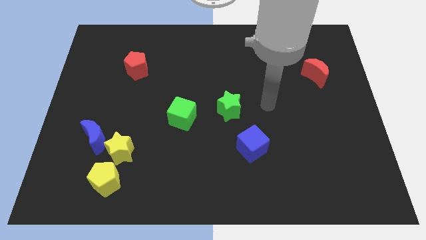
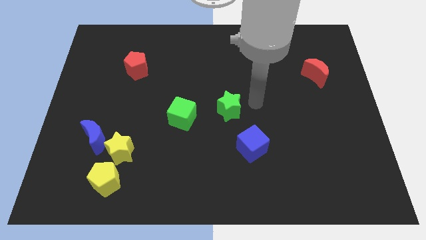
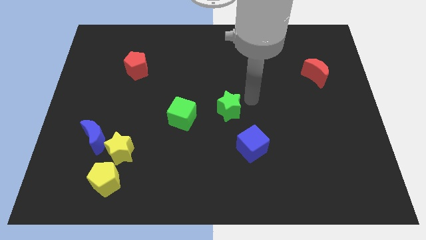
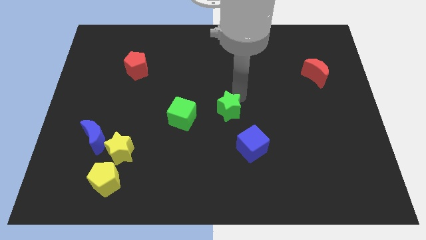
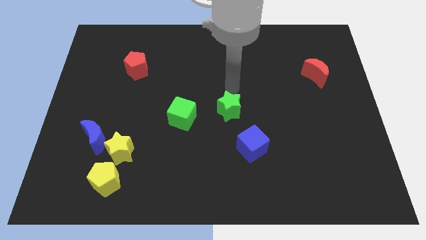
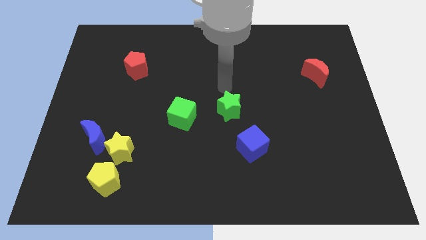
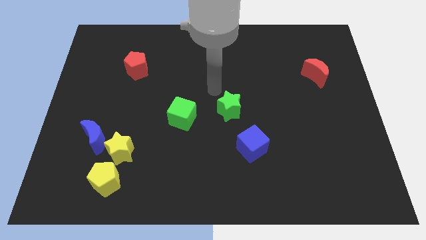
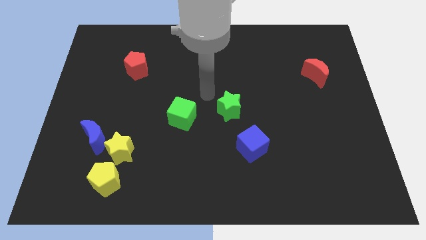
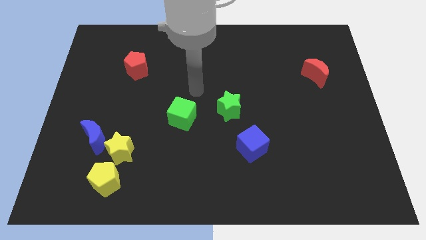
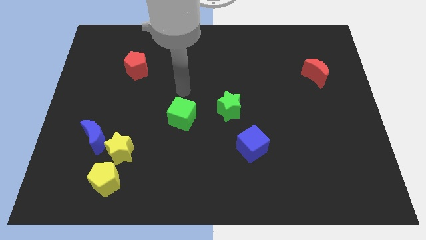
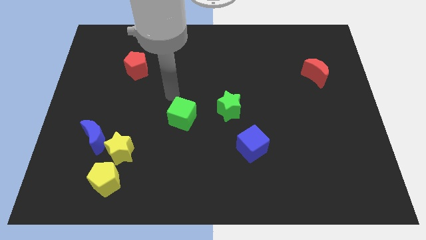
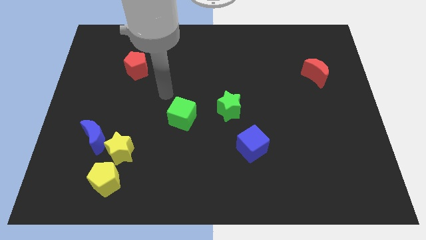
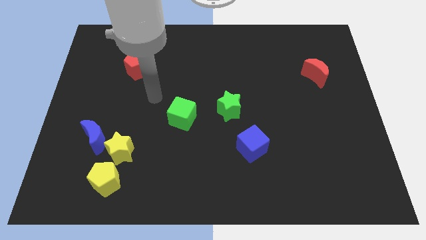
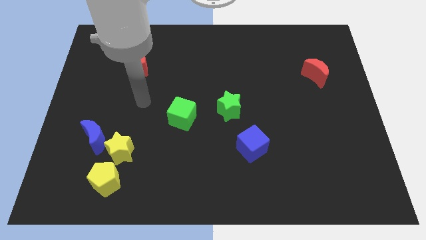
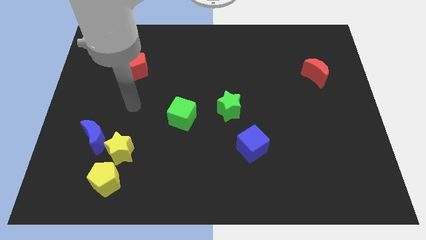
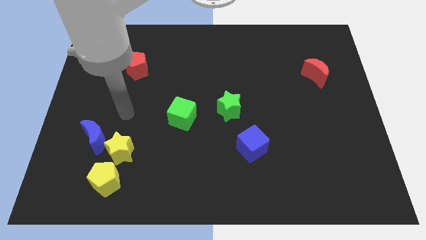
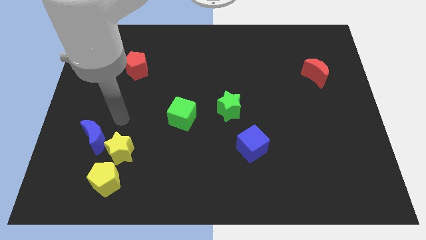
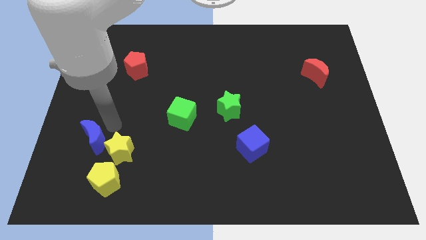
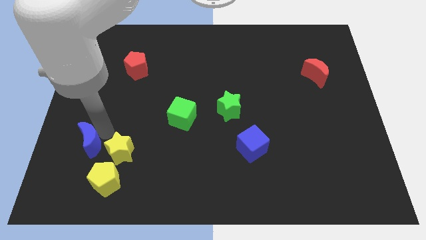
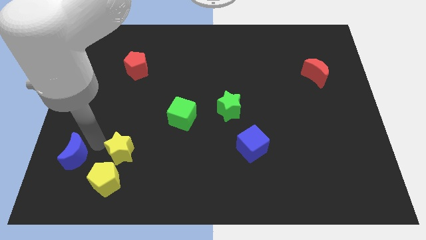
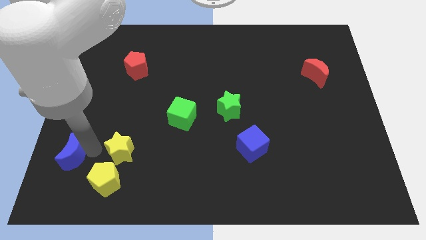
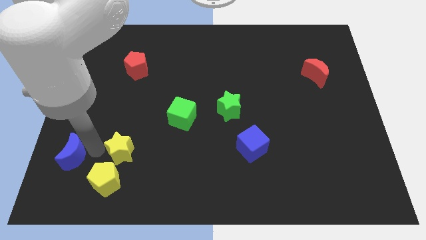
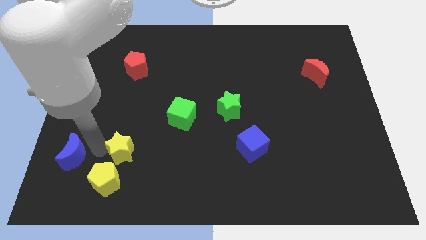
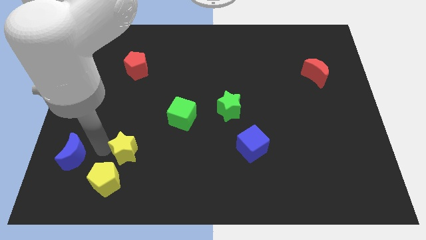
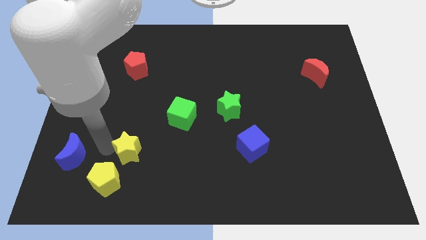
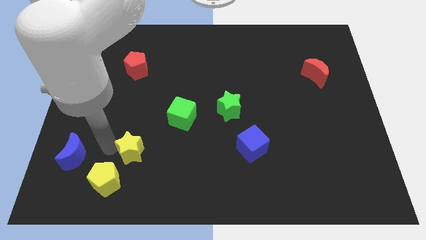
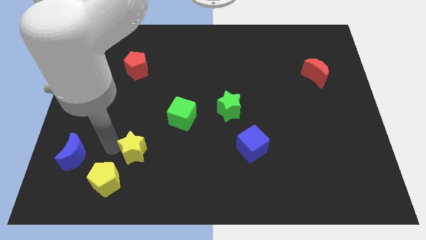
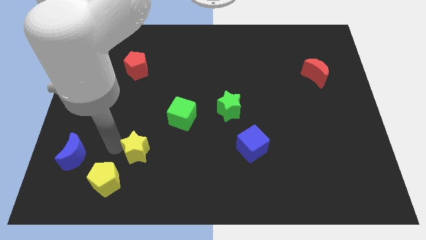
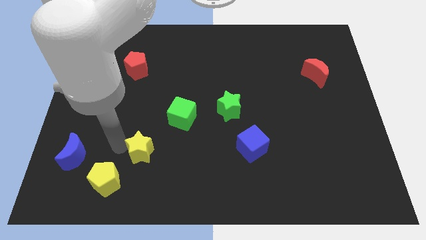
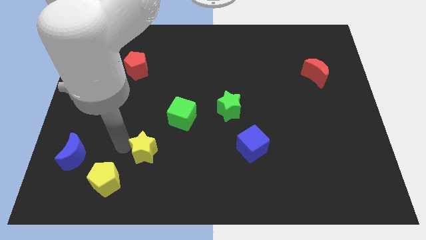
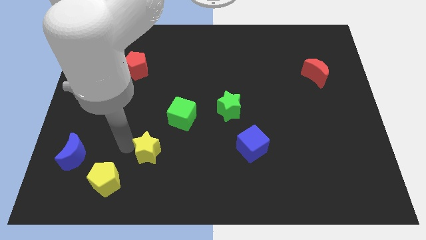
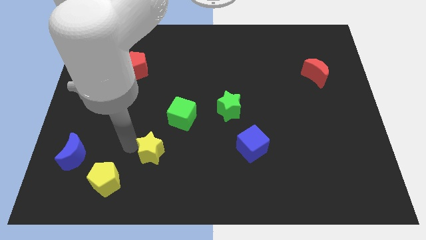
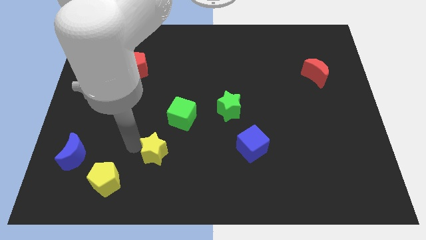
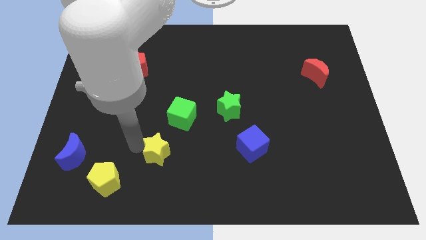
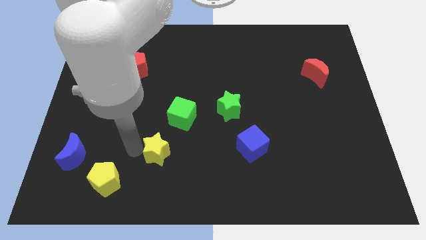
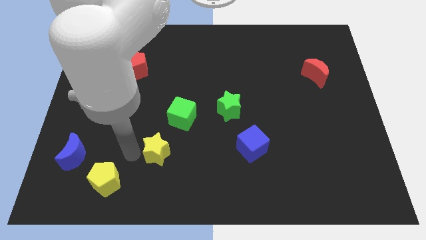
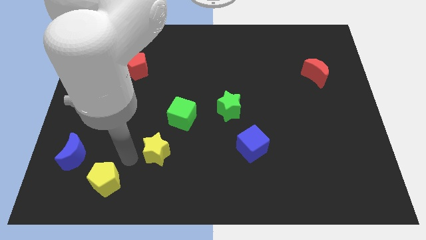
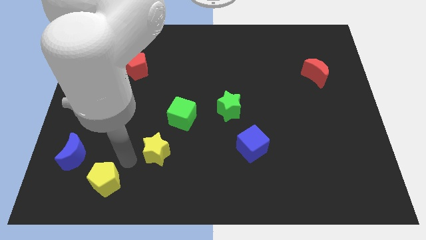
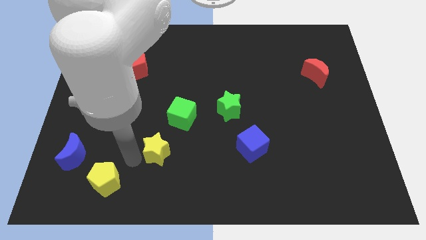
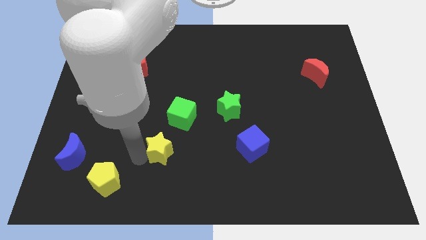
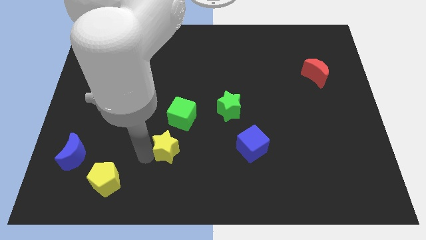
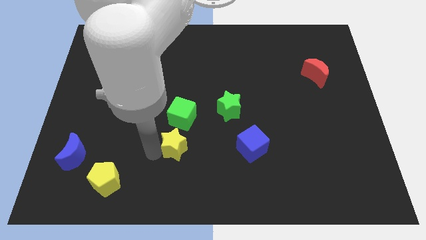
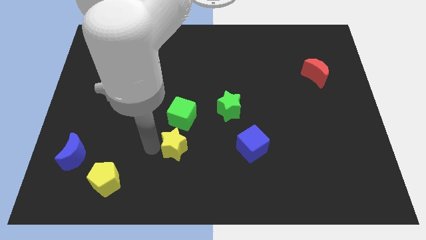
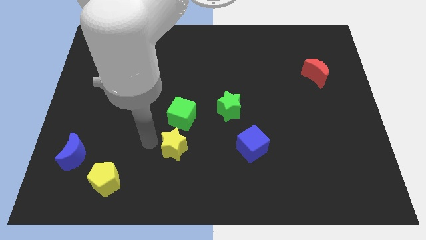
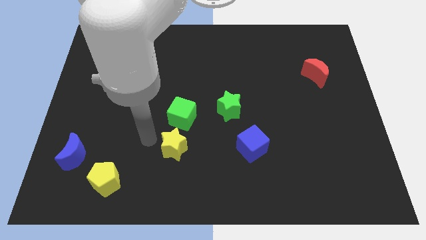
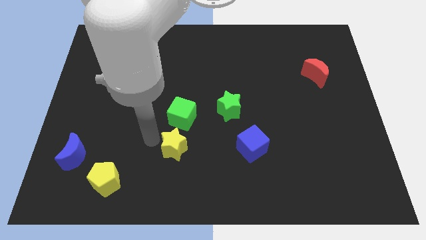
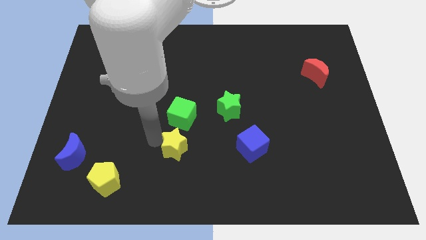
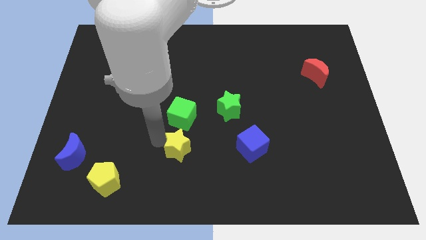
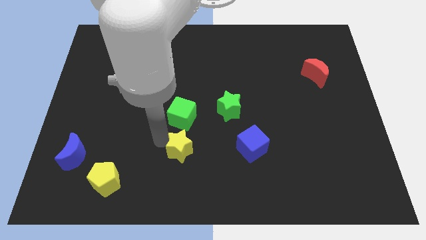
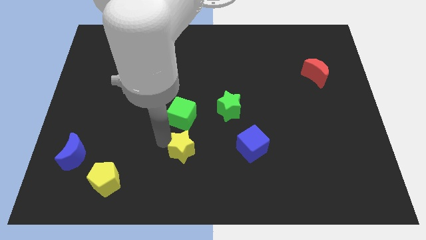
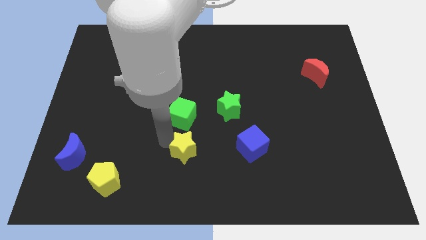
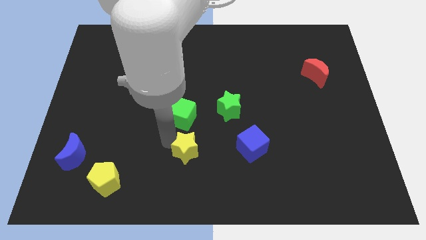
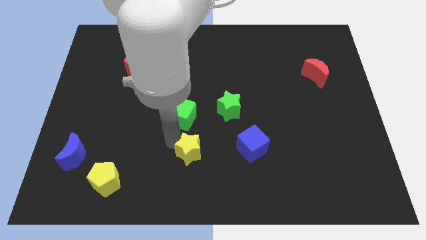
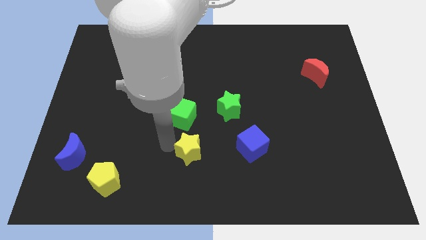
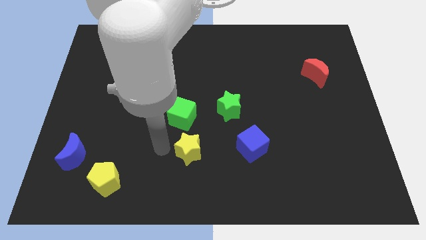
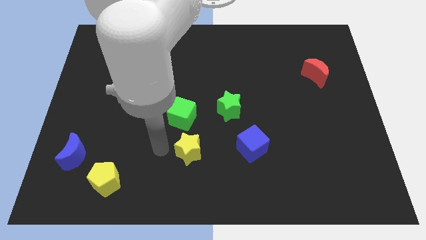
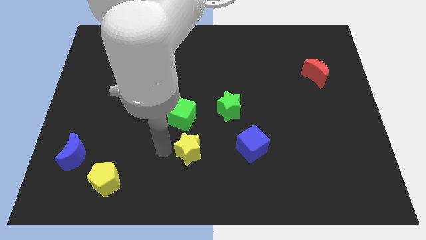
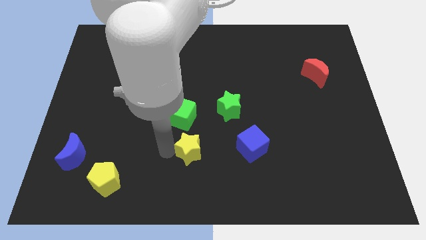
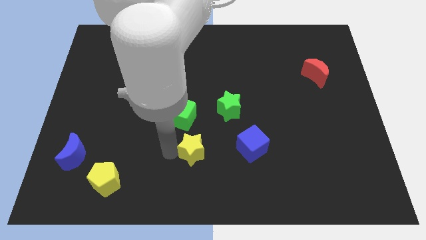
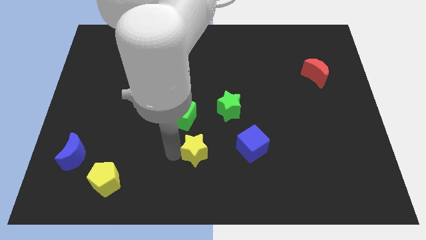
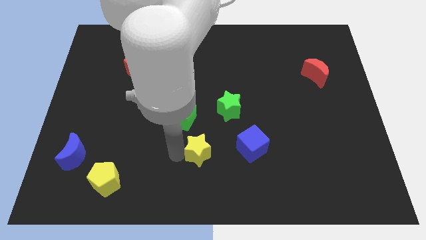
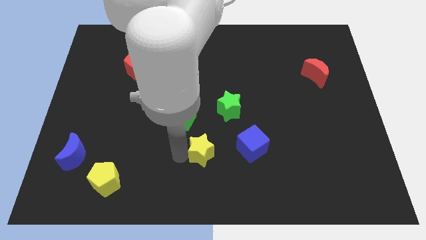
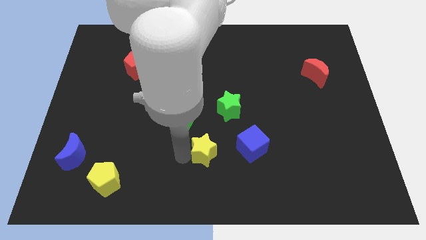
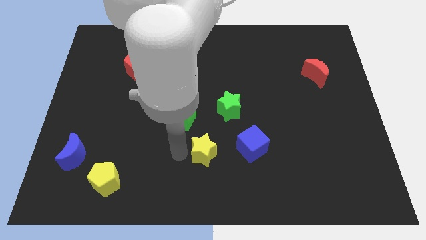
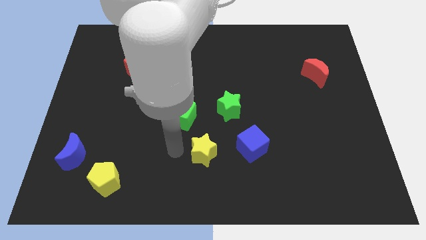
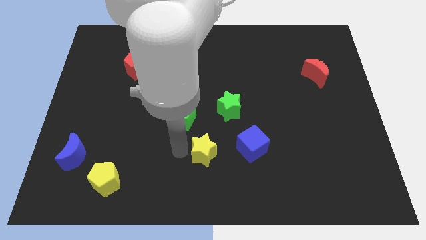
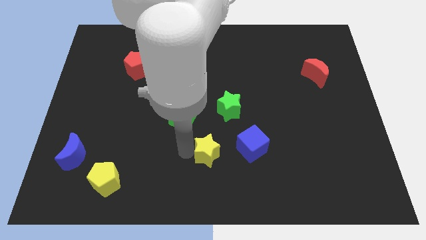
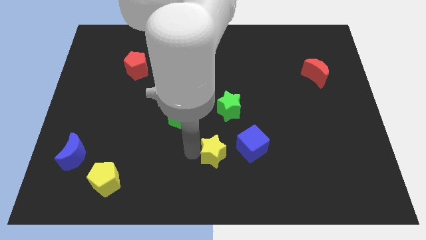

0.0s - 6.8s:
push the yellow star to the right

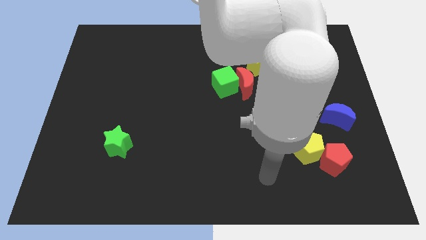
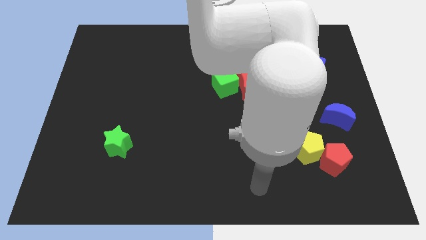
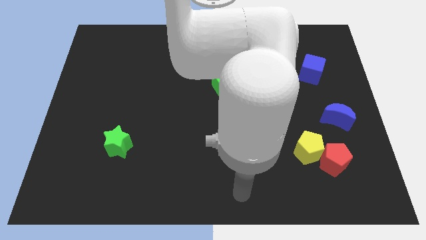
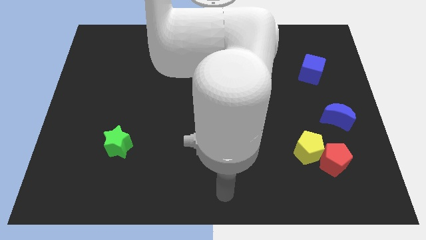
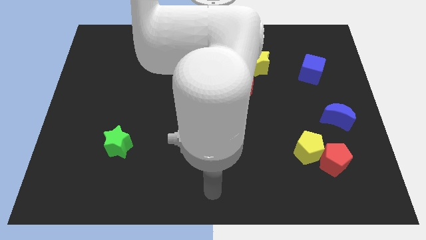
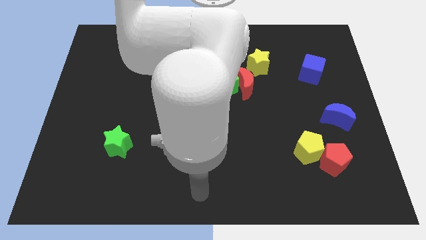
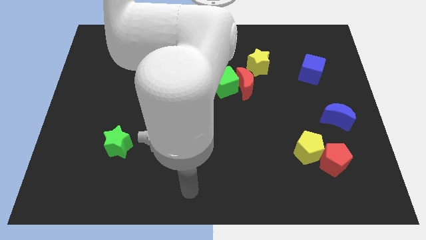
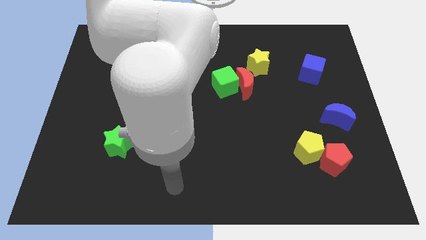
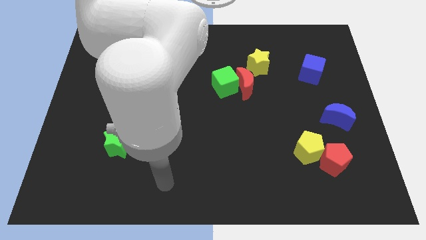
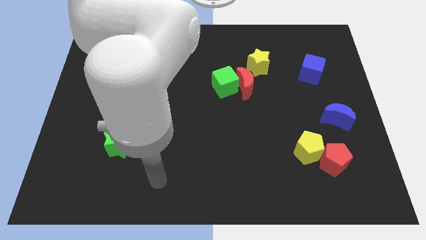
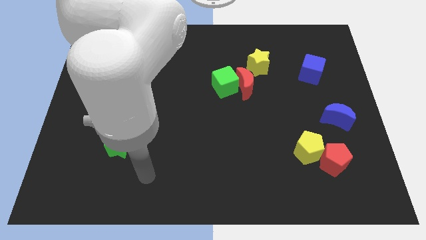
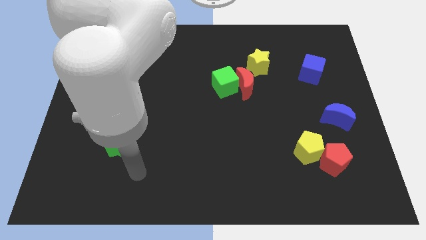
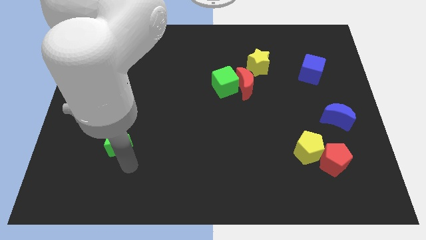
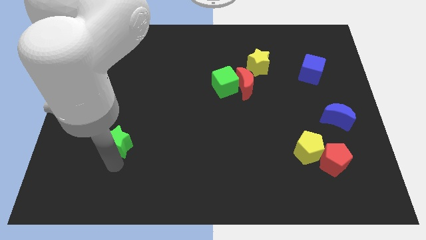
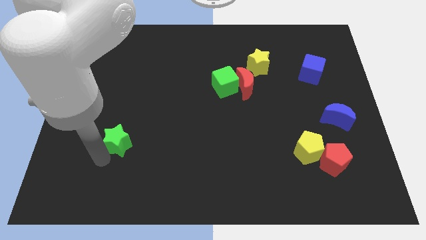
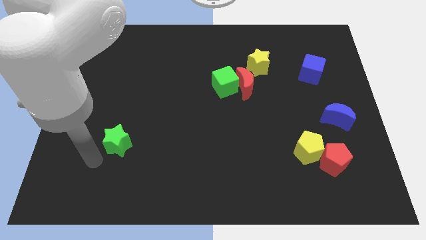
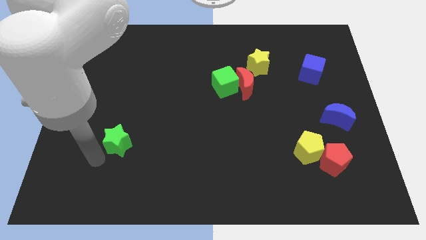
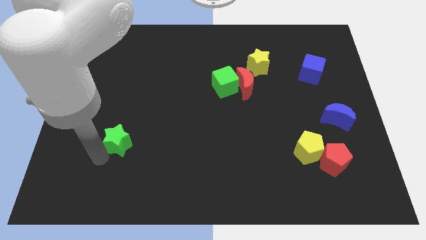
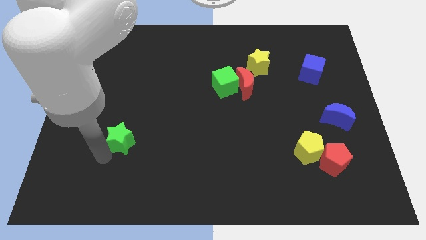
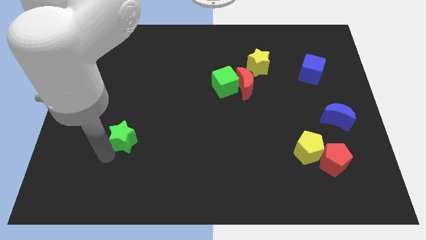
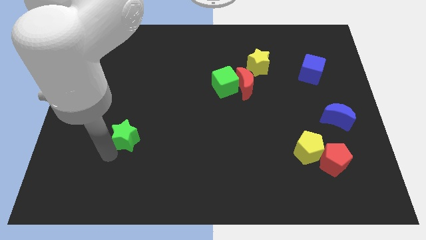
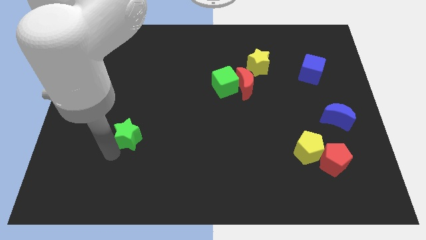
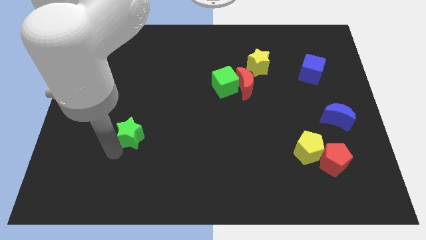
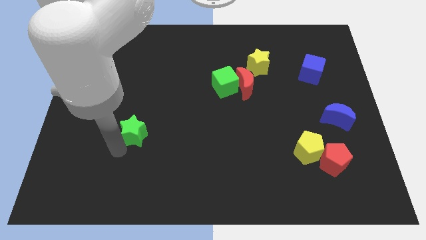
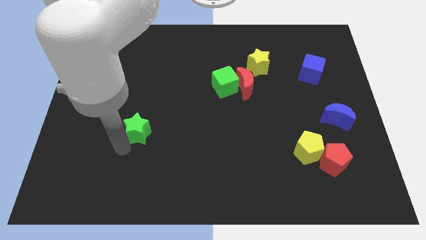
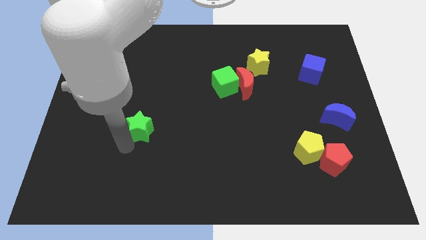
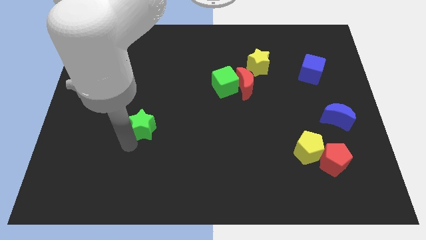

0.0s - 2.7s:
slide the green star slightly up and right diagonally
